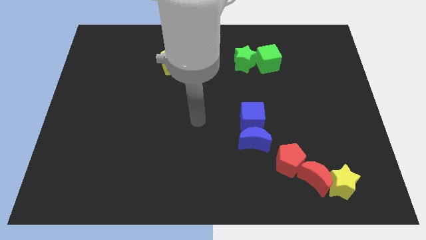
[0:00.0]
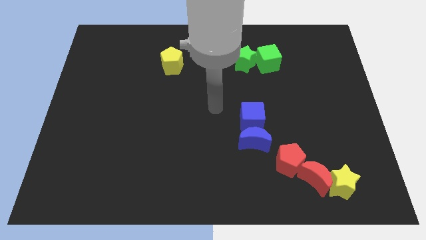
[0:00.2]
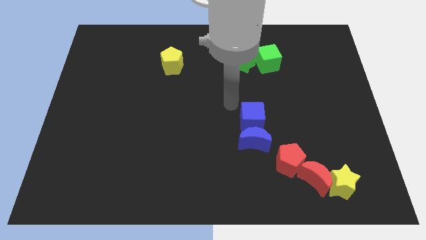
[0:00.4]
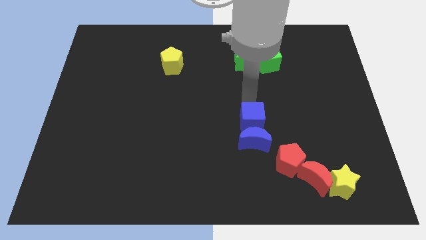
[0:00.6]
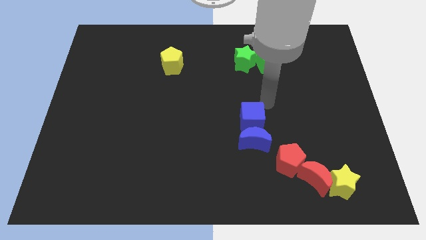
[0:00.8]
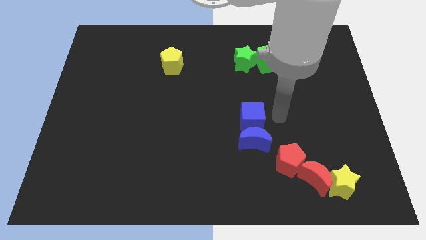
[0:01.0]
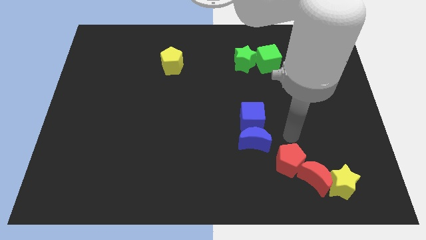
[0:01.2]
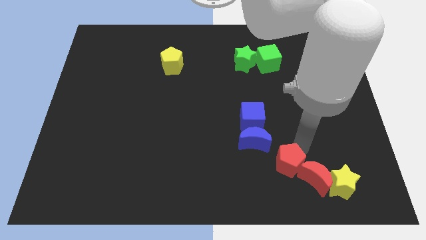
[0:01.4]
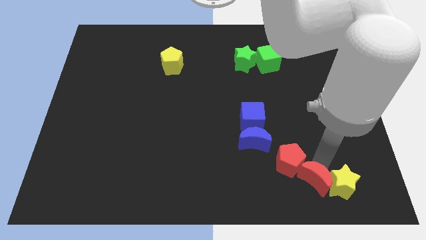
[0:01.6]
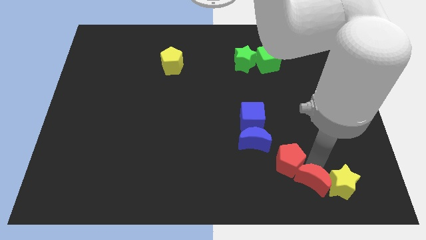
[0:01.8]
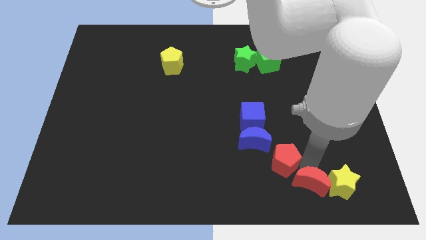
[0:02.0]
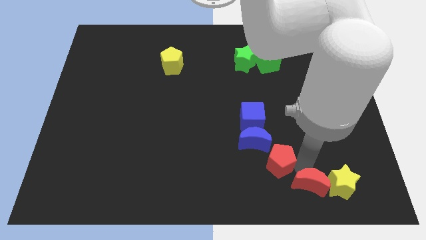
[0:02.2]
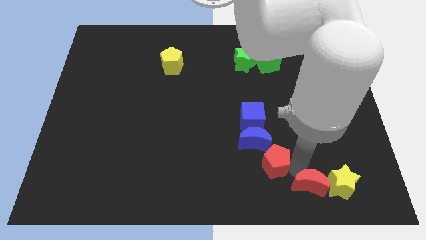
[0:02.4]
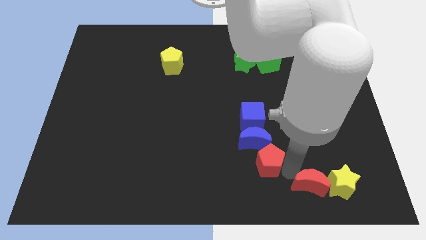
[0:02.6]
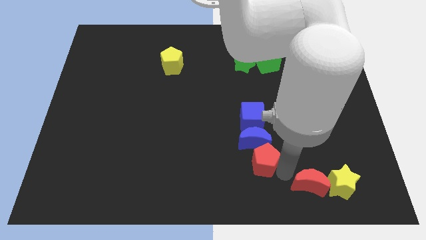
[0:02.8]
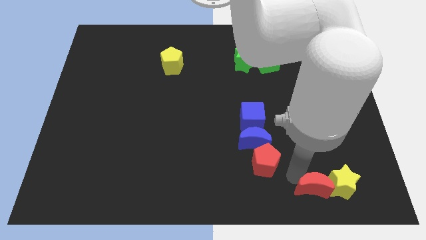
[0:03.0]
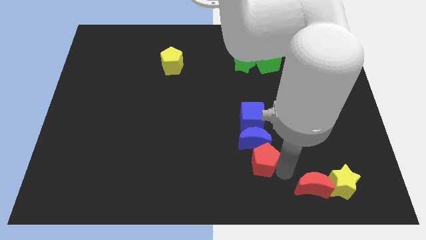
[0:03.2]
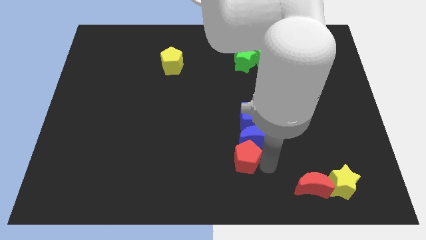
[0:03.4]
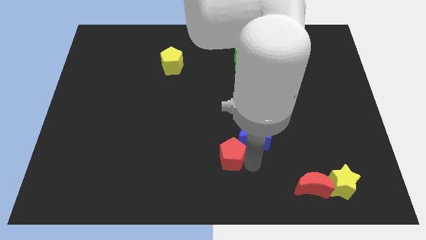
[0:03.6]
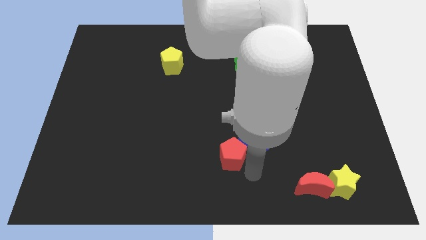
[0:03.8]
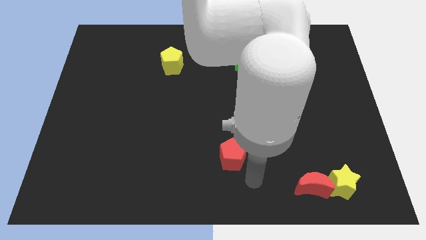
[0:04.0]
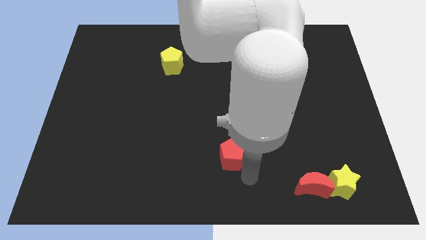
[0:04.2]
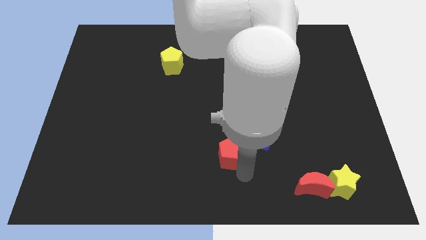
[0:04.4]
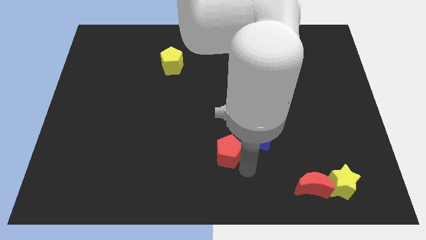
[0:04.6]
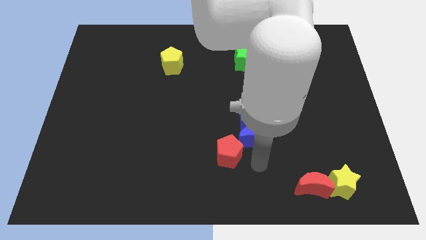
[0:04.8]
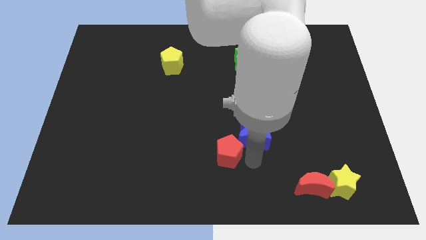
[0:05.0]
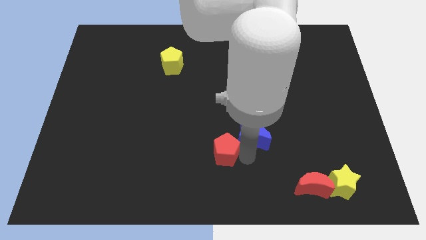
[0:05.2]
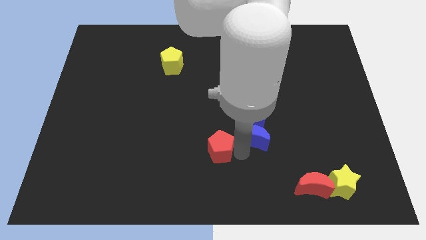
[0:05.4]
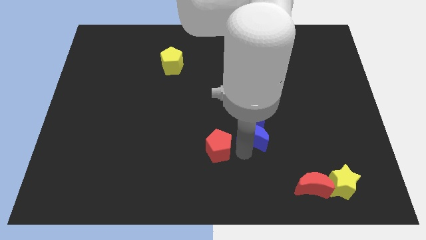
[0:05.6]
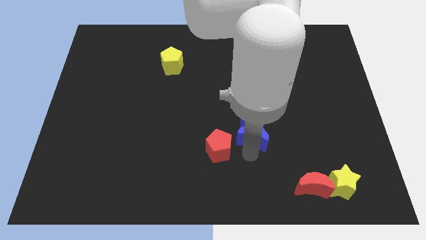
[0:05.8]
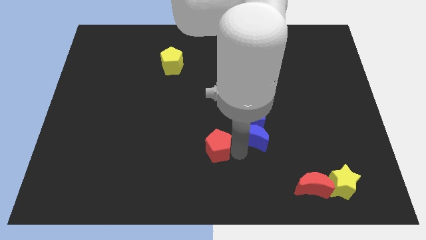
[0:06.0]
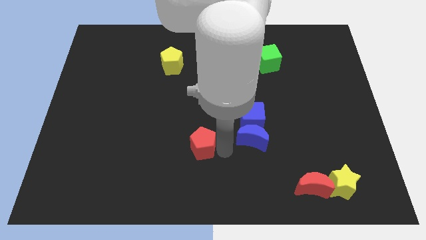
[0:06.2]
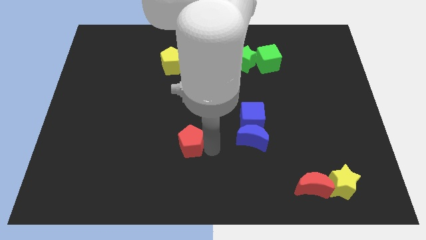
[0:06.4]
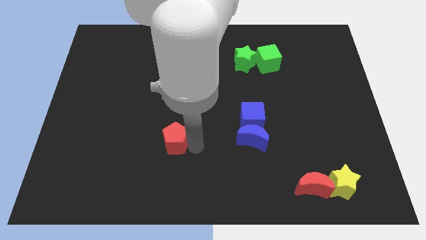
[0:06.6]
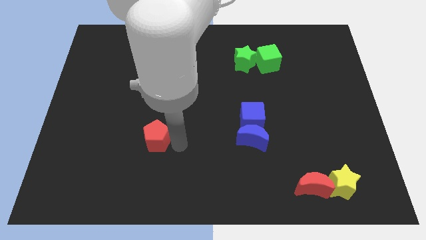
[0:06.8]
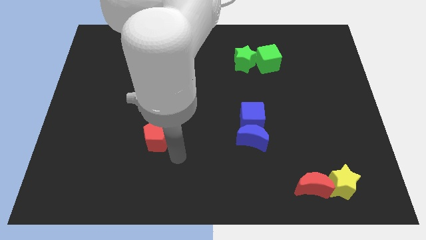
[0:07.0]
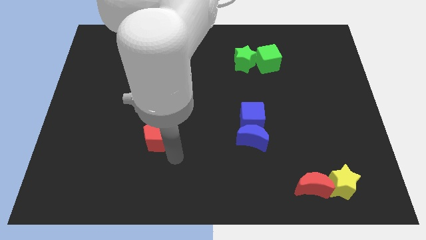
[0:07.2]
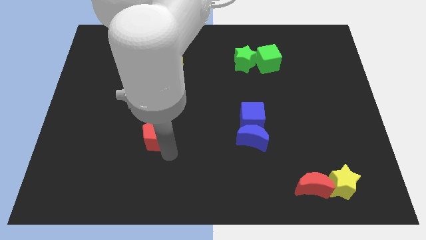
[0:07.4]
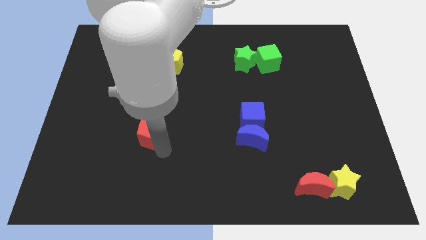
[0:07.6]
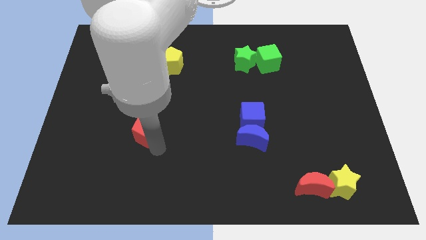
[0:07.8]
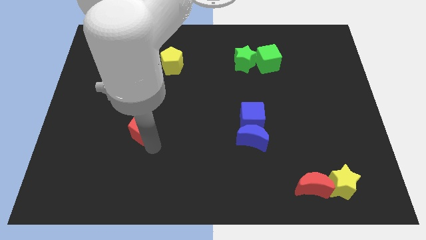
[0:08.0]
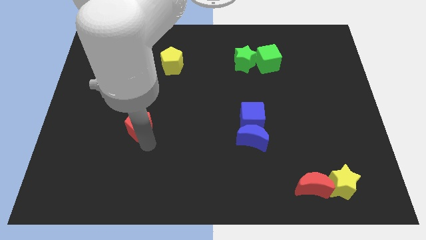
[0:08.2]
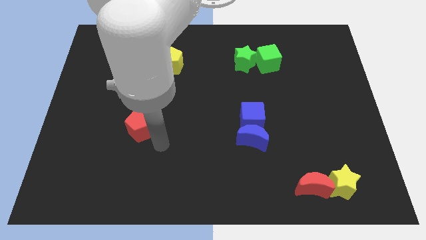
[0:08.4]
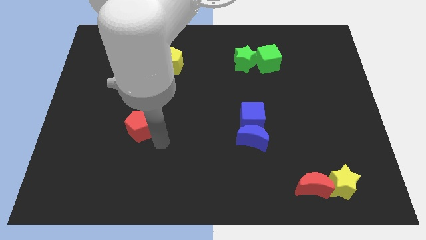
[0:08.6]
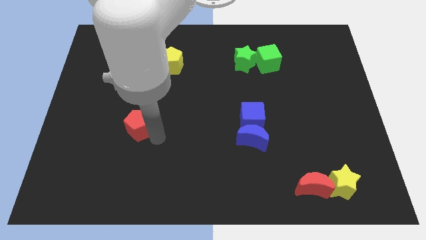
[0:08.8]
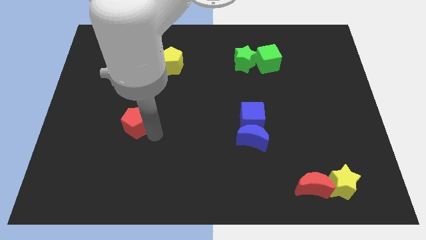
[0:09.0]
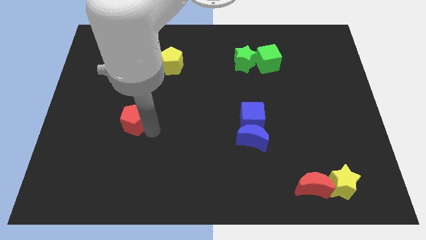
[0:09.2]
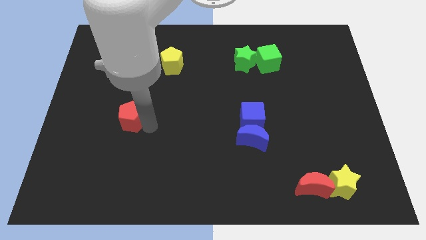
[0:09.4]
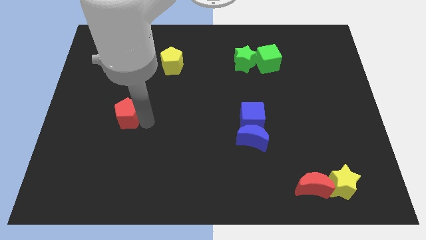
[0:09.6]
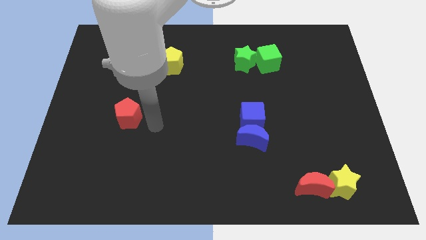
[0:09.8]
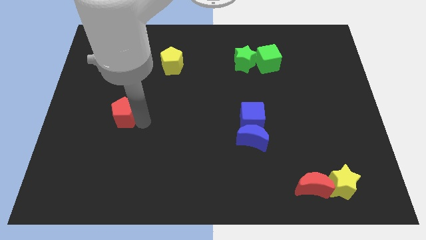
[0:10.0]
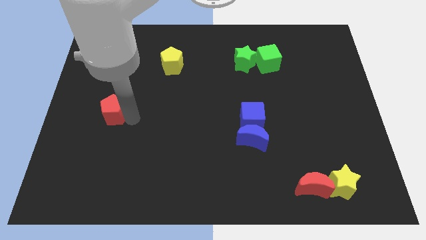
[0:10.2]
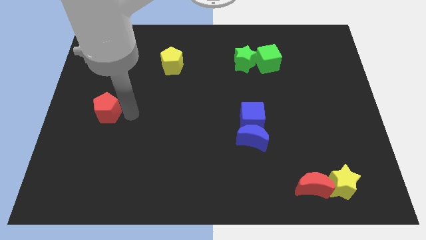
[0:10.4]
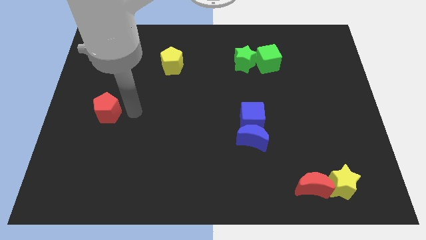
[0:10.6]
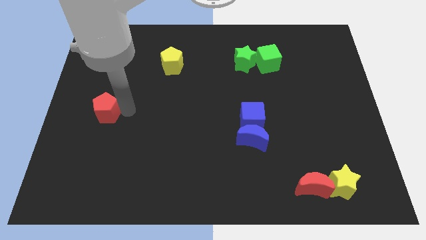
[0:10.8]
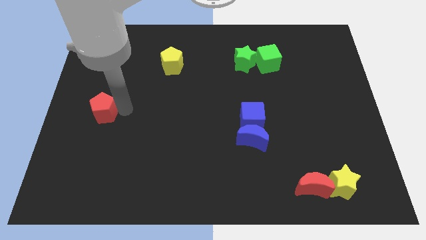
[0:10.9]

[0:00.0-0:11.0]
push the red pentagon to the center left

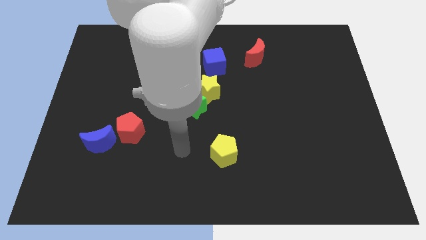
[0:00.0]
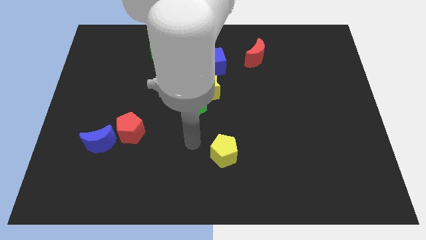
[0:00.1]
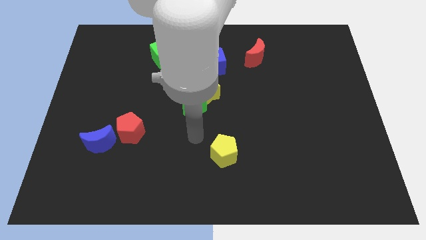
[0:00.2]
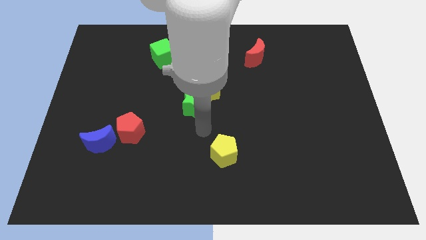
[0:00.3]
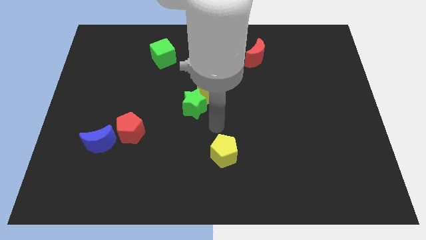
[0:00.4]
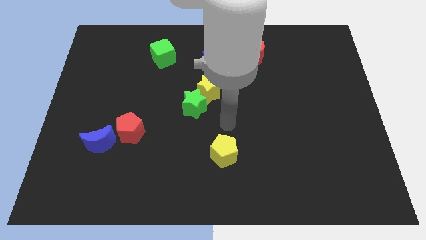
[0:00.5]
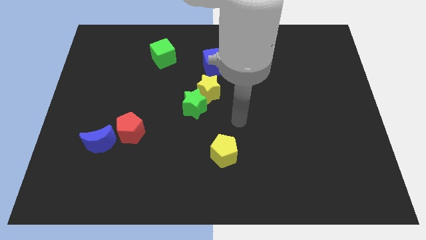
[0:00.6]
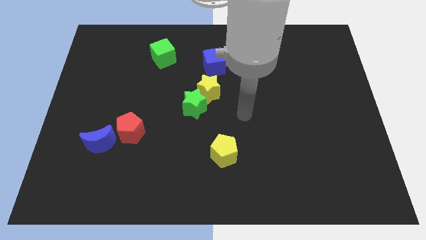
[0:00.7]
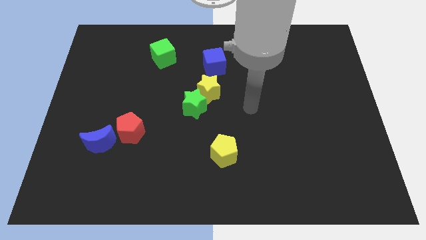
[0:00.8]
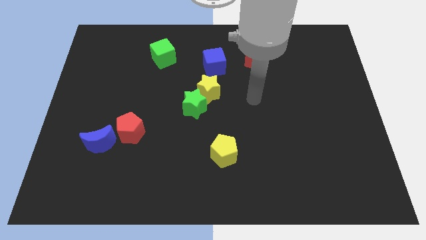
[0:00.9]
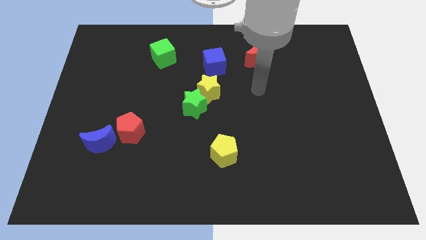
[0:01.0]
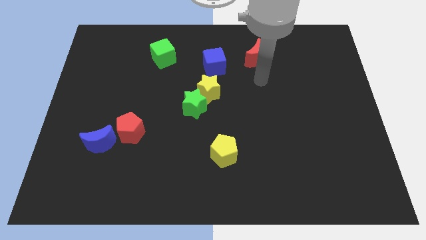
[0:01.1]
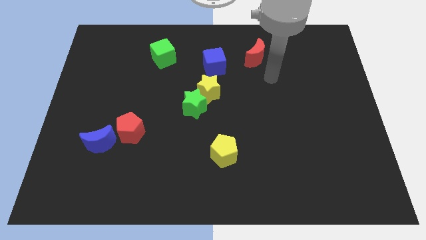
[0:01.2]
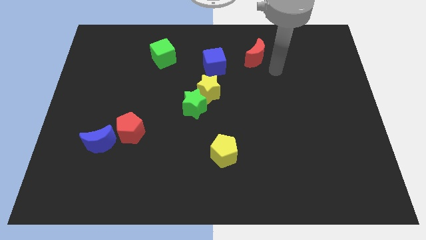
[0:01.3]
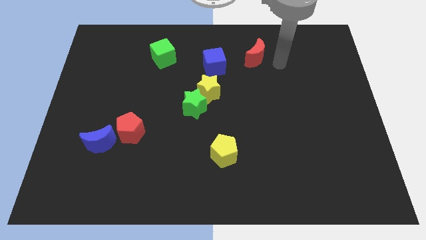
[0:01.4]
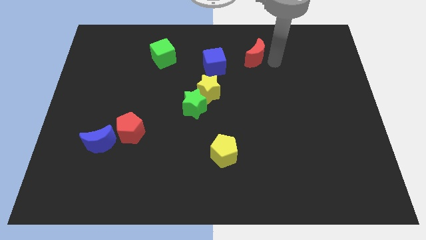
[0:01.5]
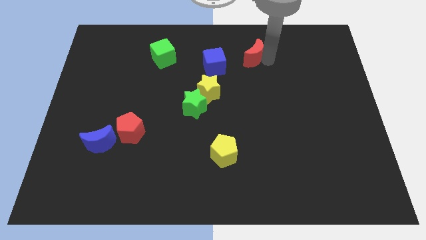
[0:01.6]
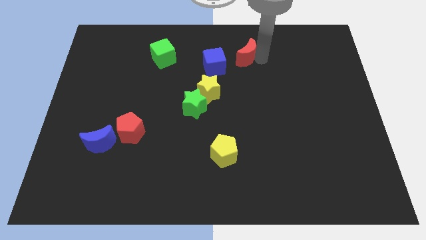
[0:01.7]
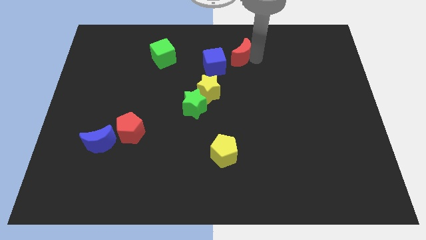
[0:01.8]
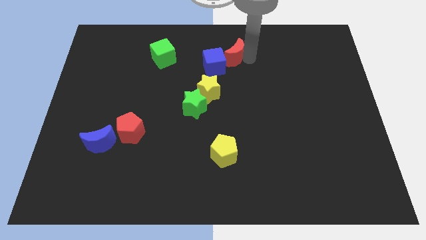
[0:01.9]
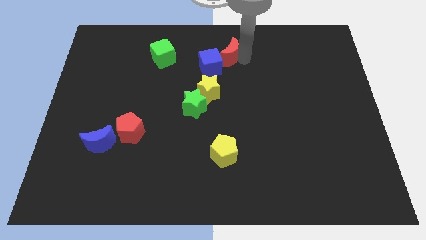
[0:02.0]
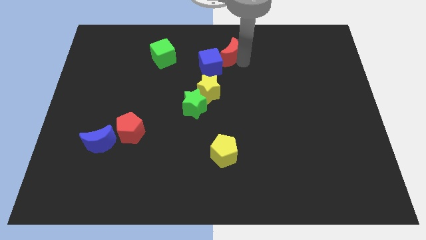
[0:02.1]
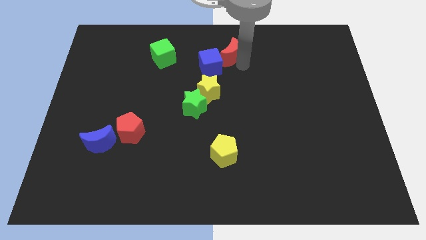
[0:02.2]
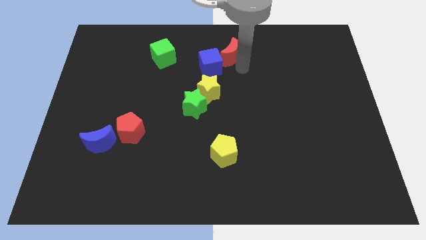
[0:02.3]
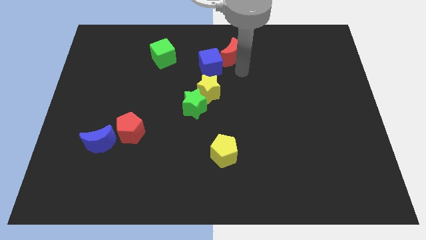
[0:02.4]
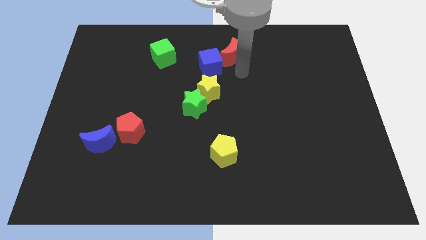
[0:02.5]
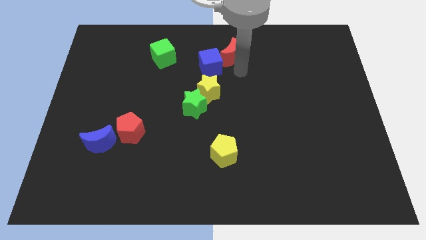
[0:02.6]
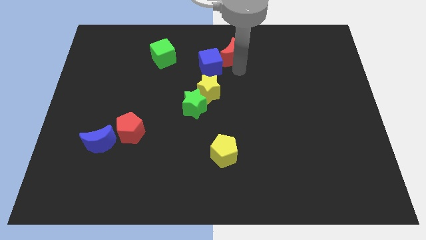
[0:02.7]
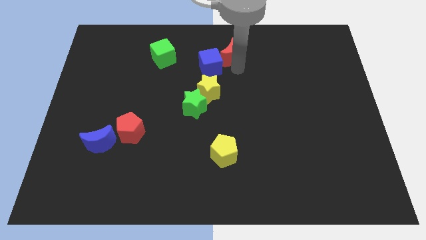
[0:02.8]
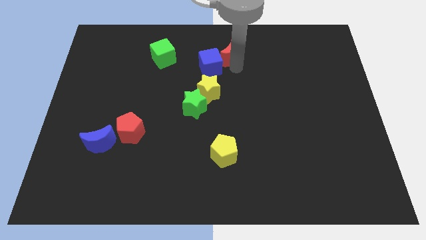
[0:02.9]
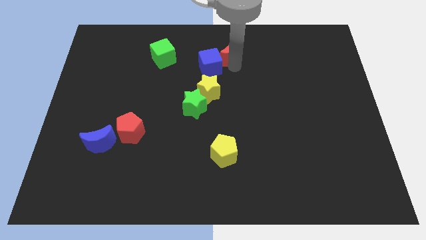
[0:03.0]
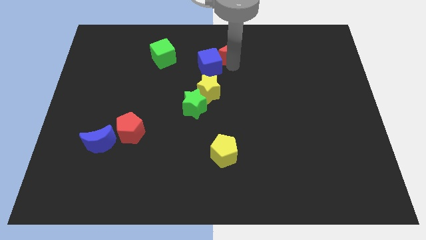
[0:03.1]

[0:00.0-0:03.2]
slide the red moon to the towards your base
